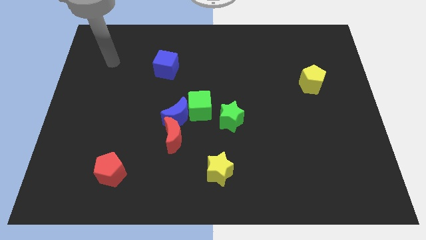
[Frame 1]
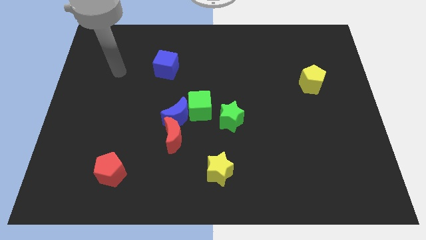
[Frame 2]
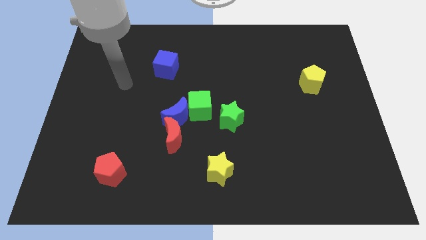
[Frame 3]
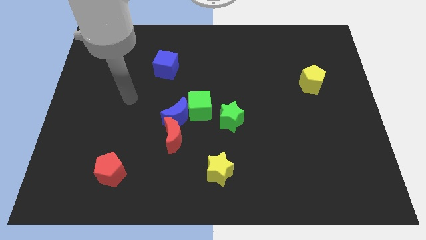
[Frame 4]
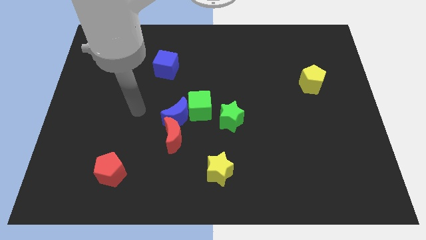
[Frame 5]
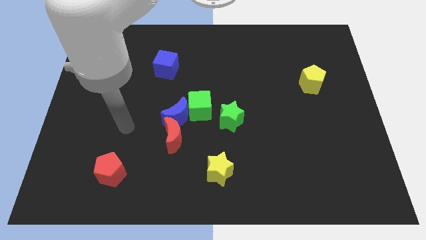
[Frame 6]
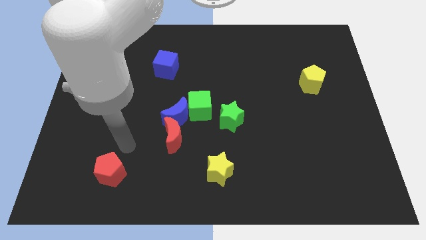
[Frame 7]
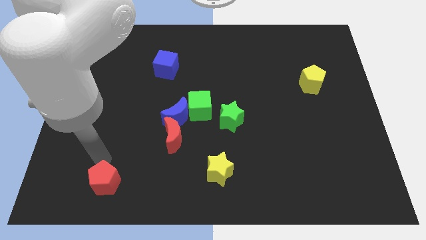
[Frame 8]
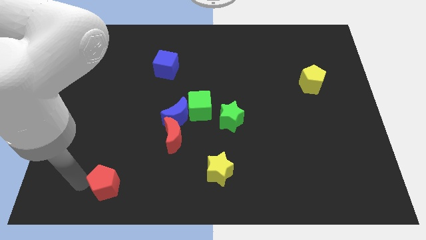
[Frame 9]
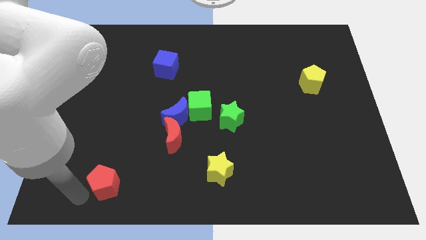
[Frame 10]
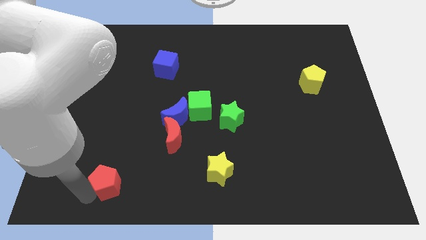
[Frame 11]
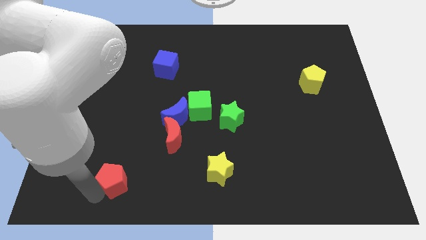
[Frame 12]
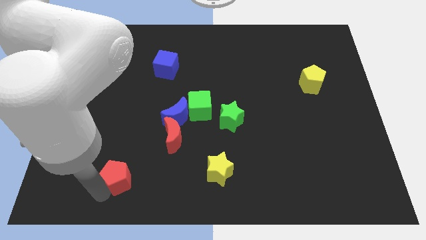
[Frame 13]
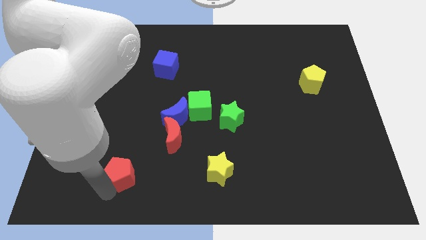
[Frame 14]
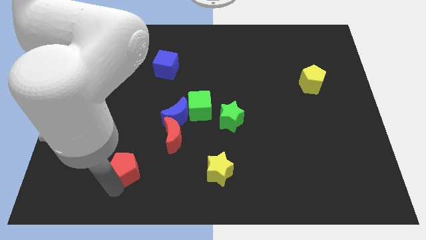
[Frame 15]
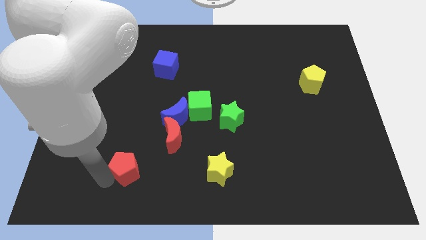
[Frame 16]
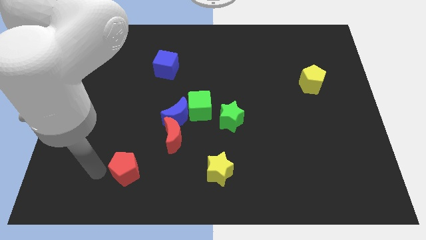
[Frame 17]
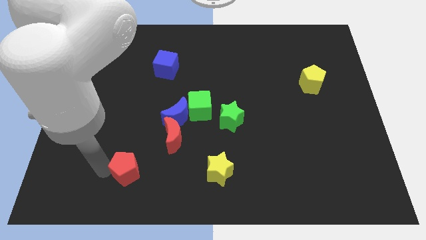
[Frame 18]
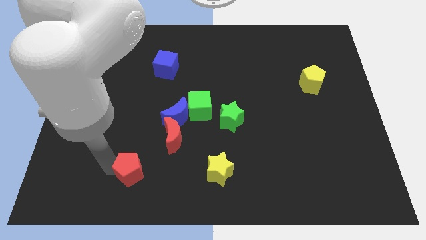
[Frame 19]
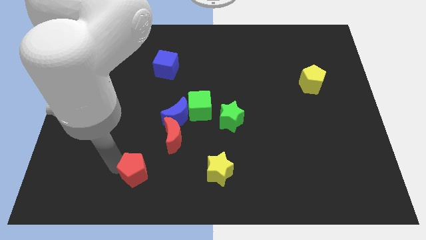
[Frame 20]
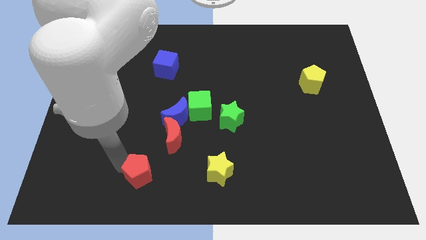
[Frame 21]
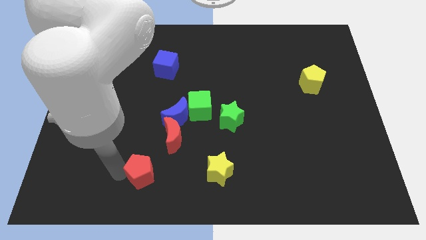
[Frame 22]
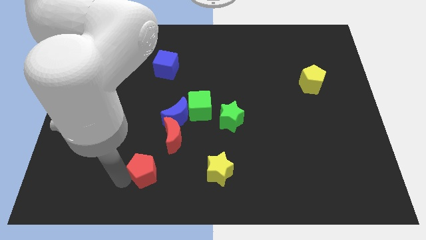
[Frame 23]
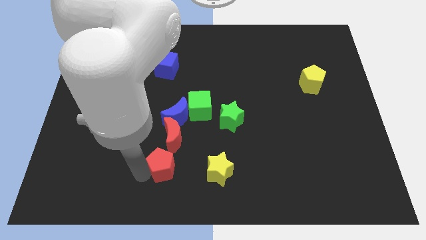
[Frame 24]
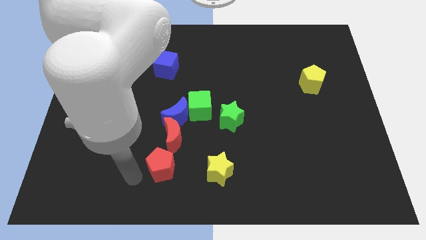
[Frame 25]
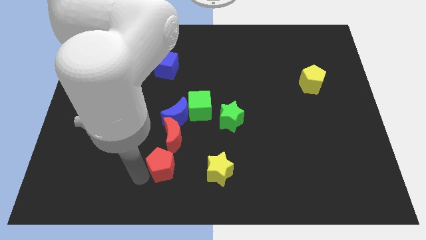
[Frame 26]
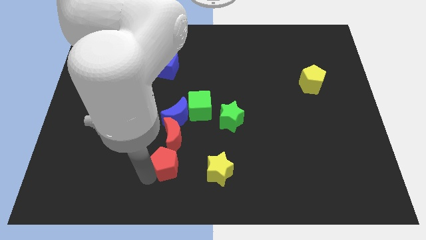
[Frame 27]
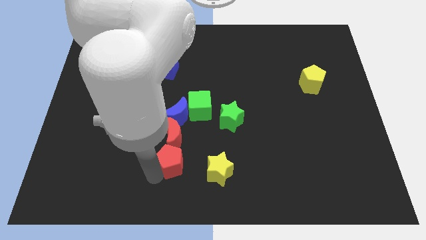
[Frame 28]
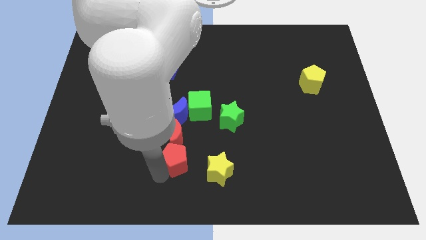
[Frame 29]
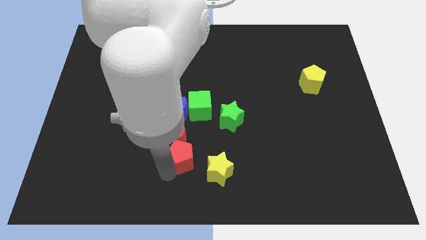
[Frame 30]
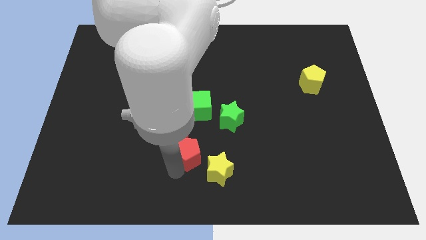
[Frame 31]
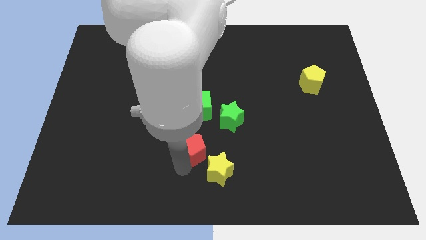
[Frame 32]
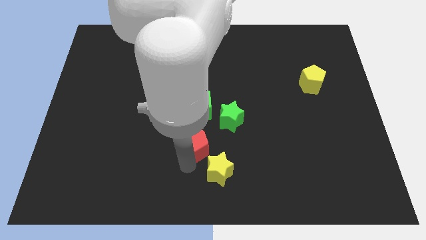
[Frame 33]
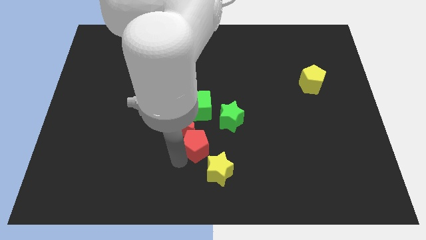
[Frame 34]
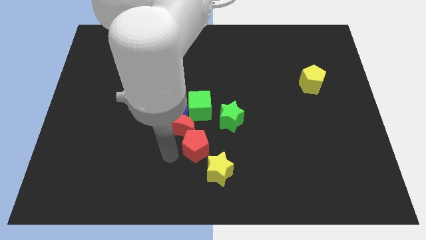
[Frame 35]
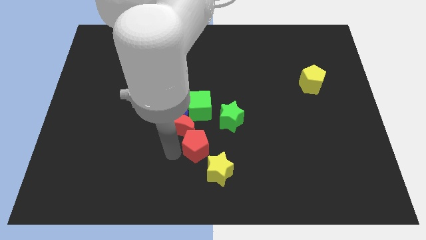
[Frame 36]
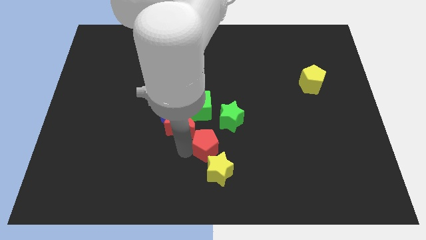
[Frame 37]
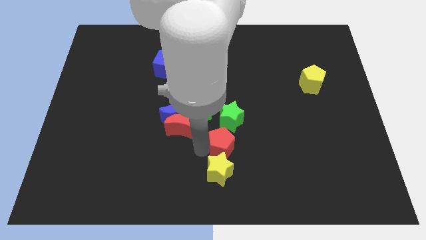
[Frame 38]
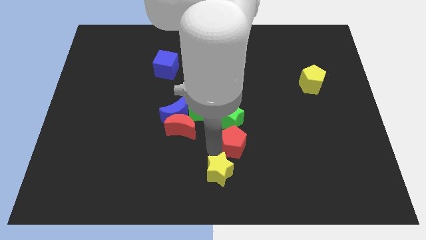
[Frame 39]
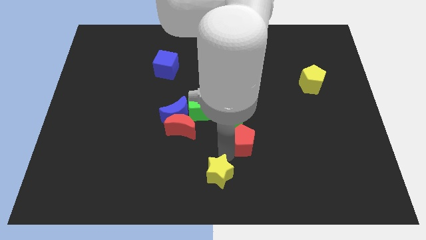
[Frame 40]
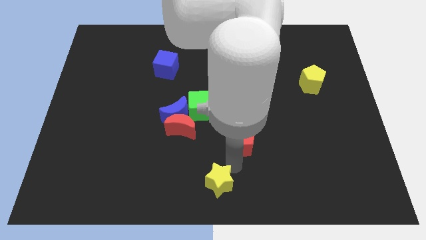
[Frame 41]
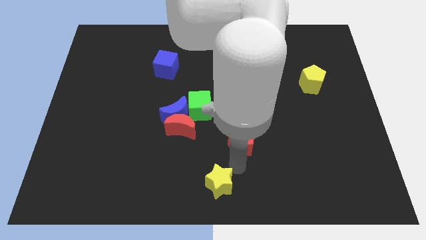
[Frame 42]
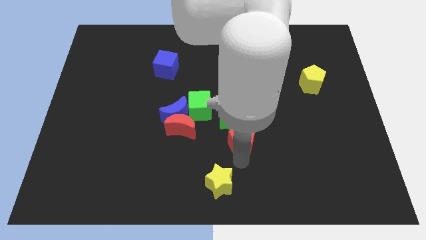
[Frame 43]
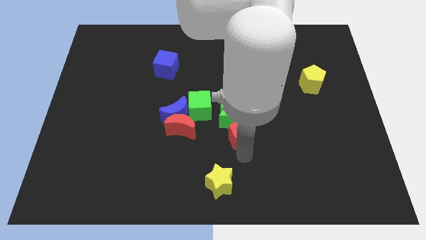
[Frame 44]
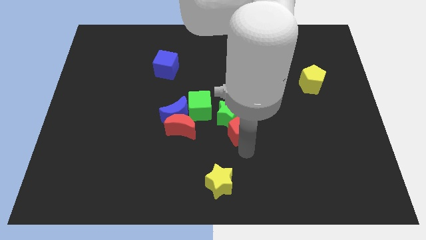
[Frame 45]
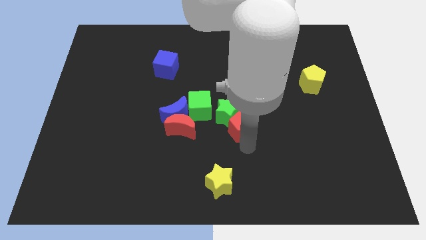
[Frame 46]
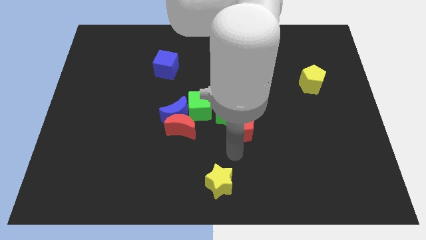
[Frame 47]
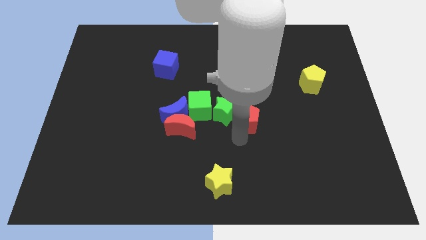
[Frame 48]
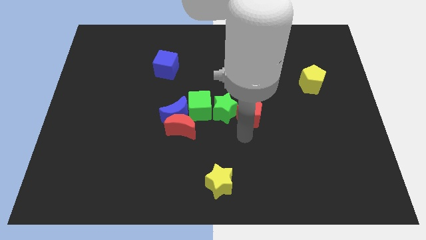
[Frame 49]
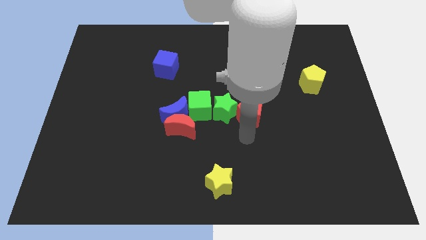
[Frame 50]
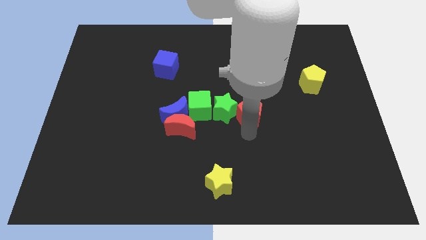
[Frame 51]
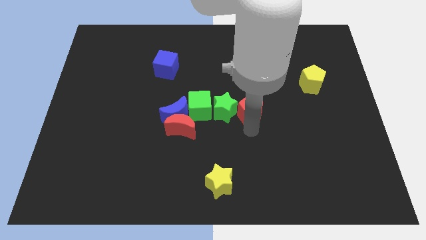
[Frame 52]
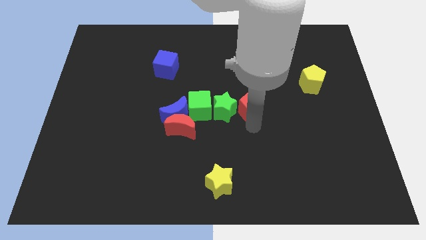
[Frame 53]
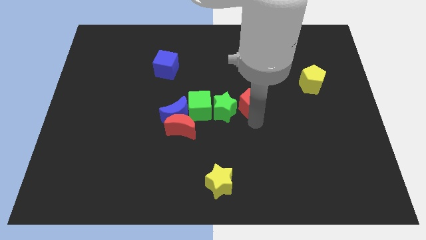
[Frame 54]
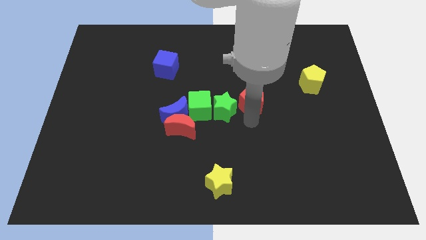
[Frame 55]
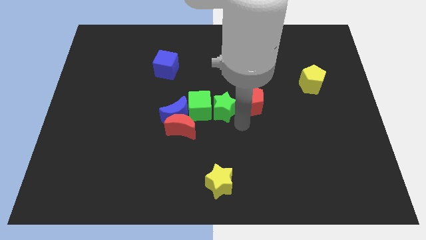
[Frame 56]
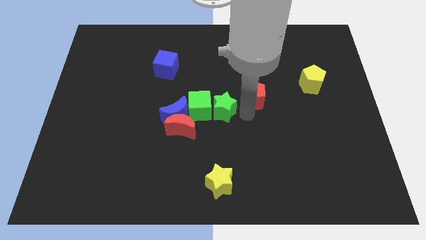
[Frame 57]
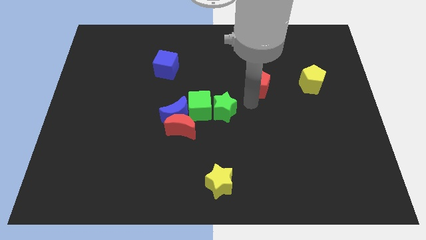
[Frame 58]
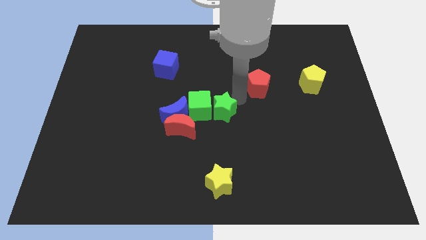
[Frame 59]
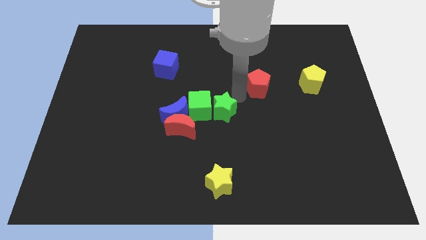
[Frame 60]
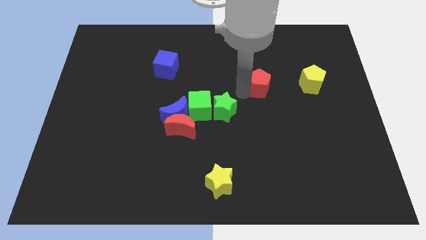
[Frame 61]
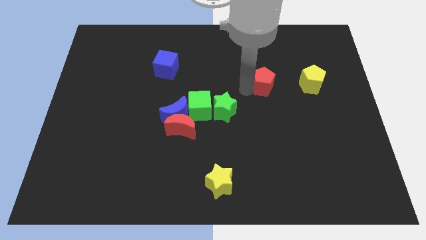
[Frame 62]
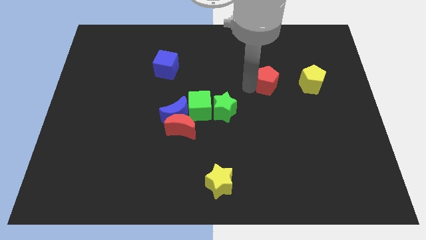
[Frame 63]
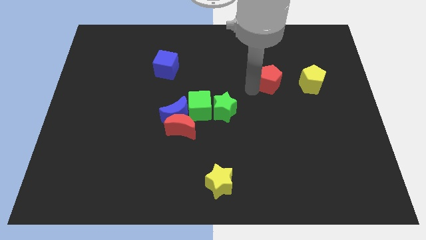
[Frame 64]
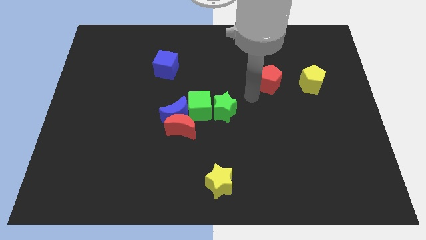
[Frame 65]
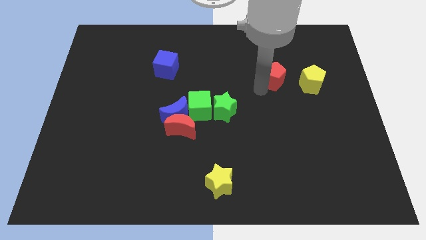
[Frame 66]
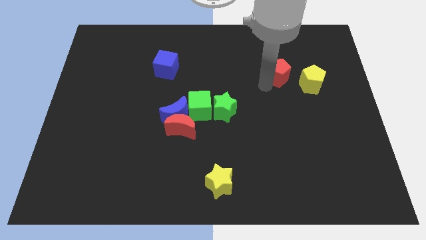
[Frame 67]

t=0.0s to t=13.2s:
slide the red pentagon diagonally up and to the left of the yellow pentagon
